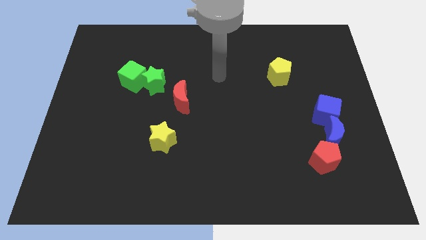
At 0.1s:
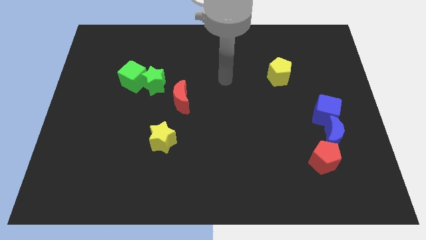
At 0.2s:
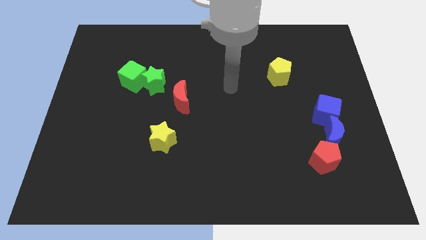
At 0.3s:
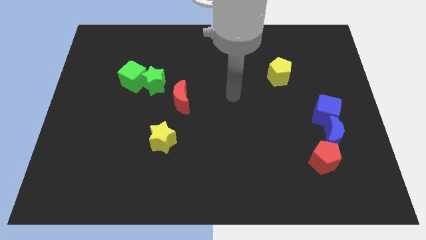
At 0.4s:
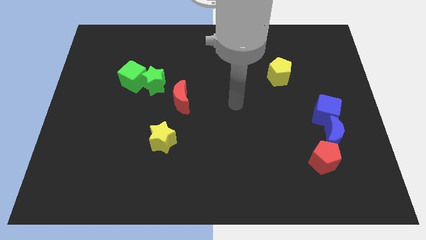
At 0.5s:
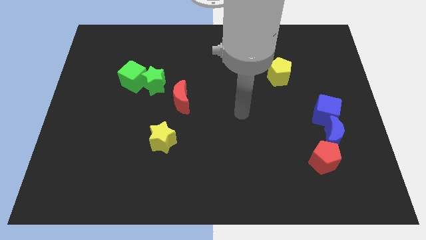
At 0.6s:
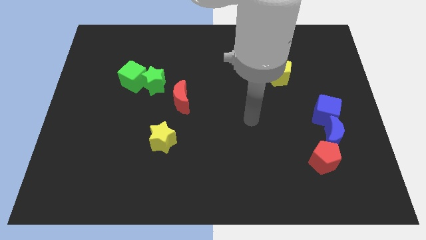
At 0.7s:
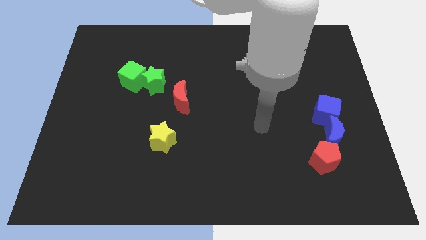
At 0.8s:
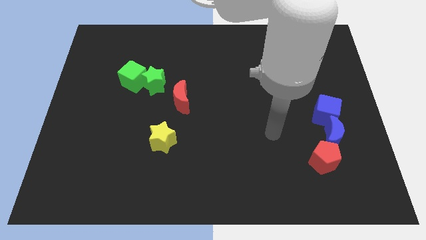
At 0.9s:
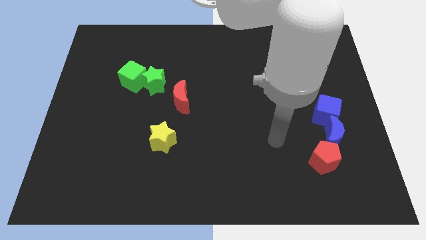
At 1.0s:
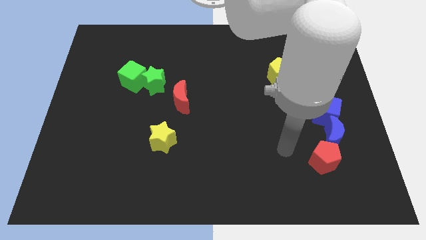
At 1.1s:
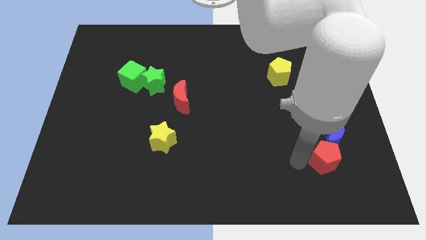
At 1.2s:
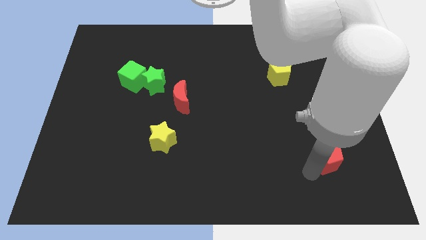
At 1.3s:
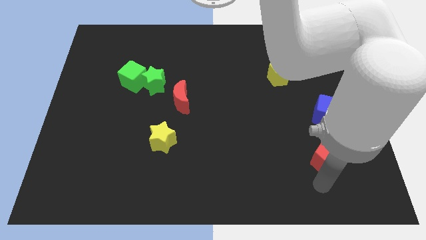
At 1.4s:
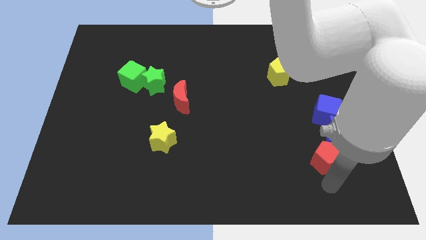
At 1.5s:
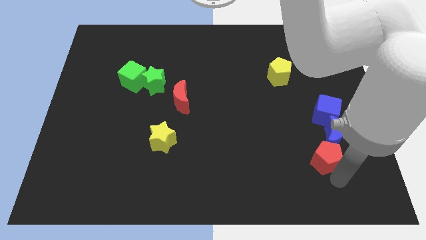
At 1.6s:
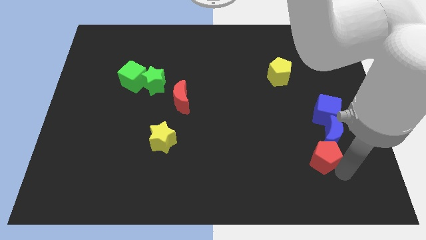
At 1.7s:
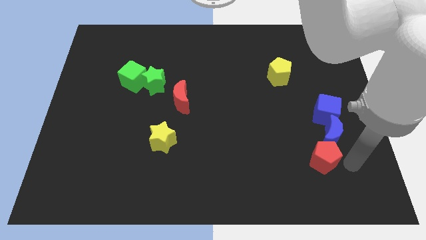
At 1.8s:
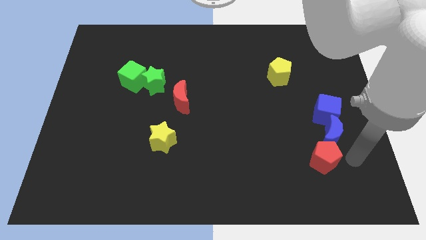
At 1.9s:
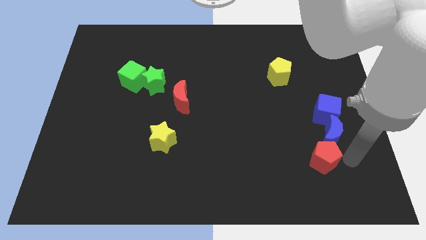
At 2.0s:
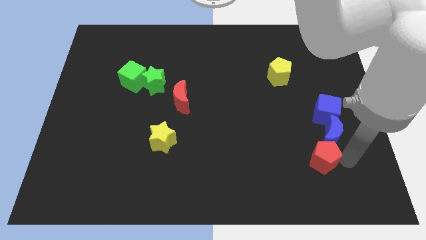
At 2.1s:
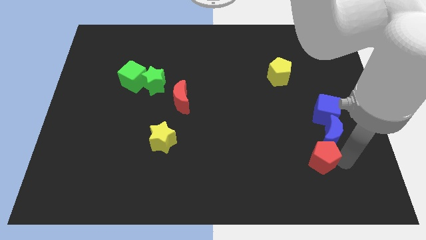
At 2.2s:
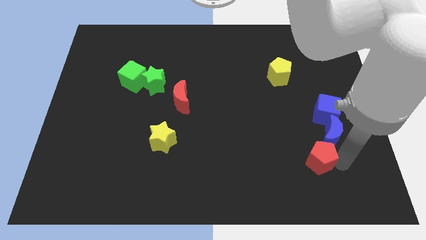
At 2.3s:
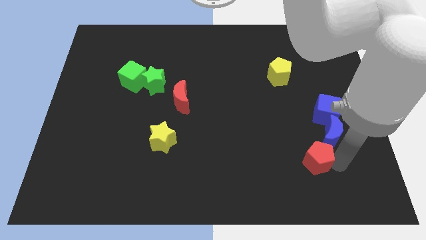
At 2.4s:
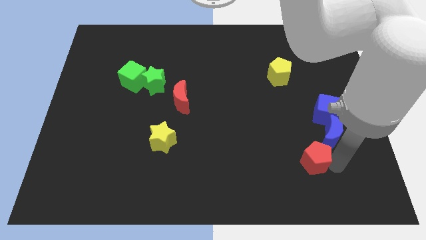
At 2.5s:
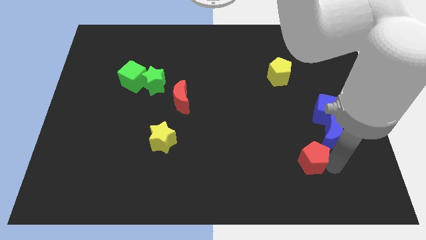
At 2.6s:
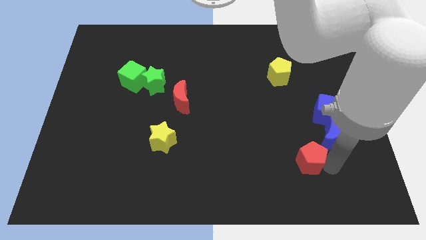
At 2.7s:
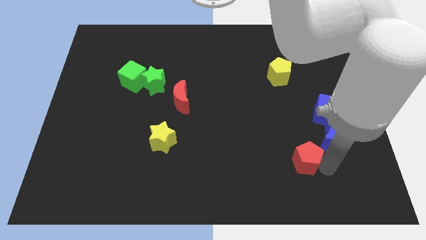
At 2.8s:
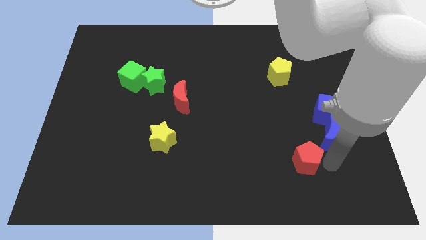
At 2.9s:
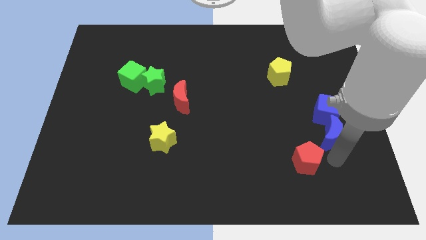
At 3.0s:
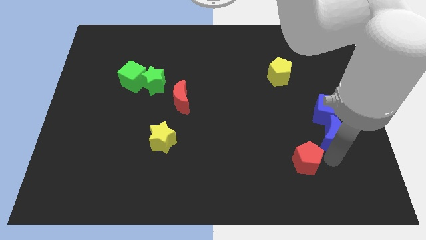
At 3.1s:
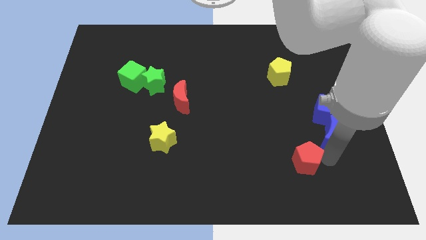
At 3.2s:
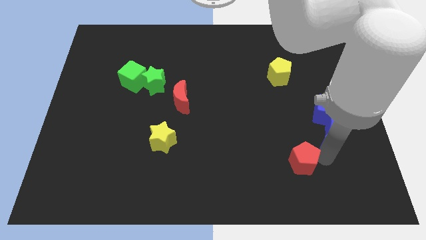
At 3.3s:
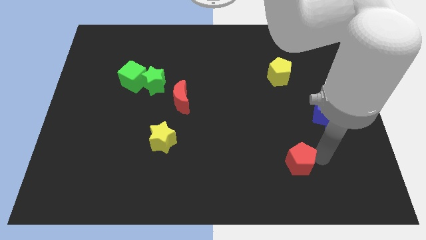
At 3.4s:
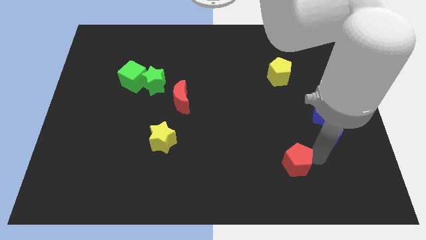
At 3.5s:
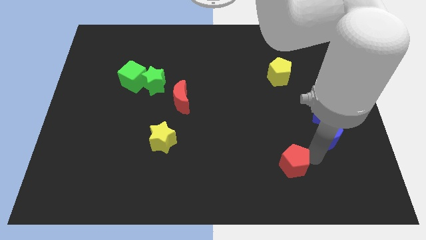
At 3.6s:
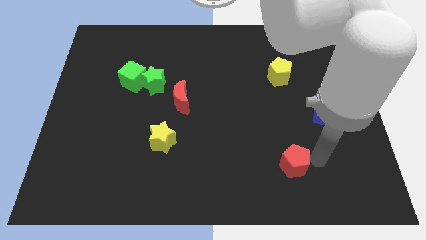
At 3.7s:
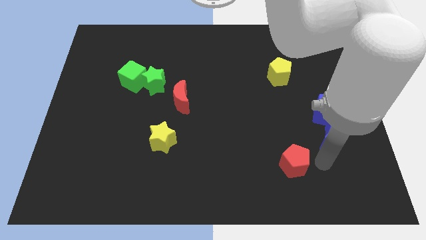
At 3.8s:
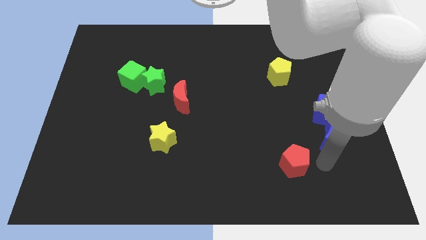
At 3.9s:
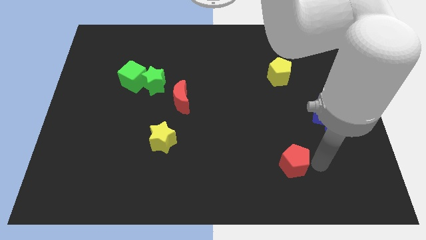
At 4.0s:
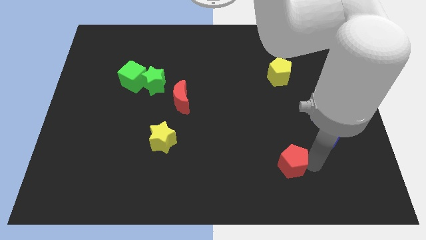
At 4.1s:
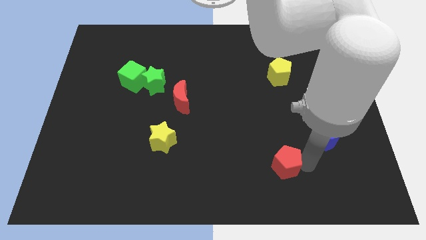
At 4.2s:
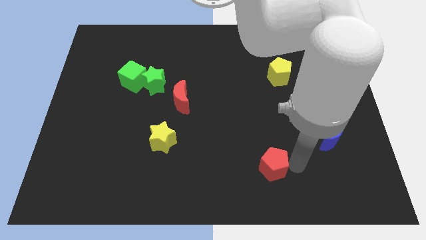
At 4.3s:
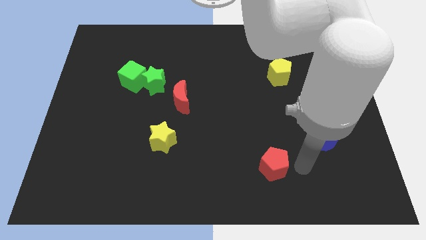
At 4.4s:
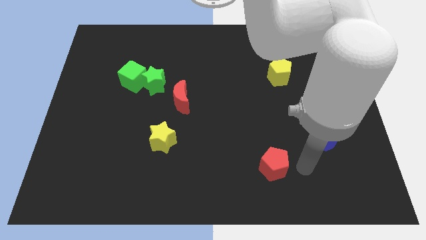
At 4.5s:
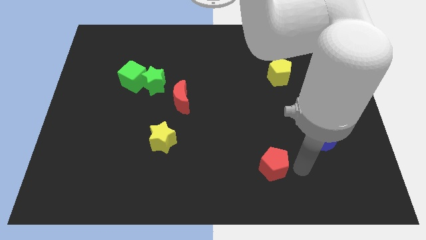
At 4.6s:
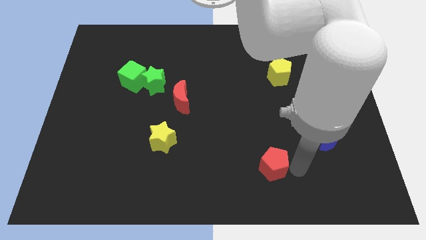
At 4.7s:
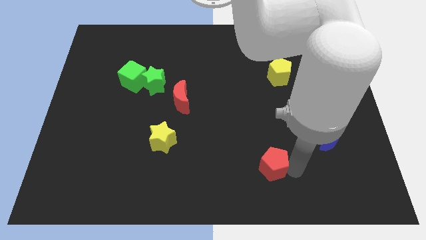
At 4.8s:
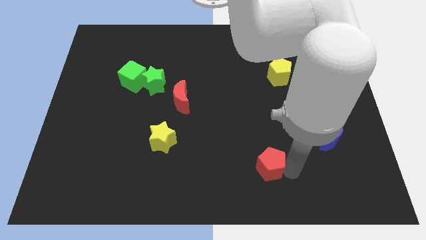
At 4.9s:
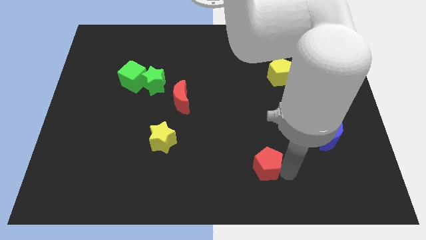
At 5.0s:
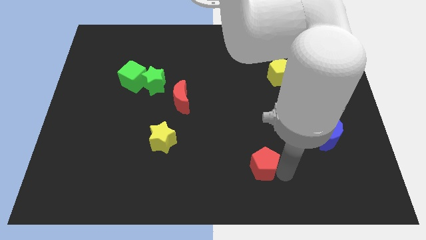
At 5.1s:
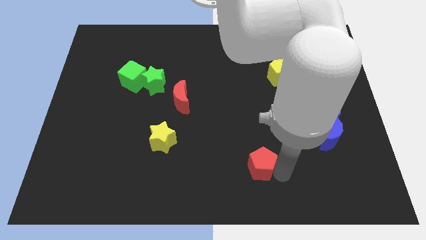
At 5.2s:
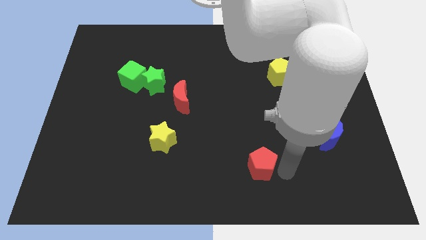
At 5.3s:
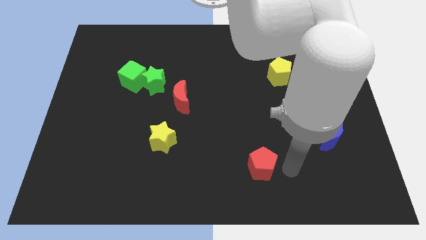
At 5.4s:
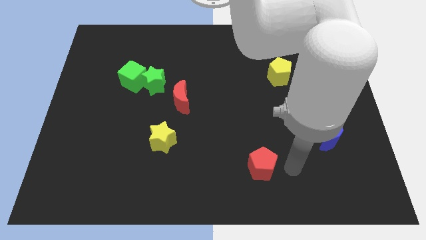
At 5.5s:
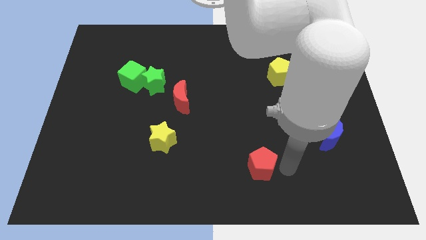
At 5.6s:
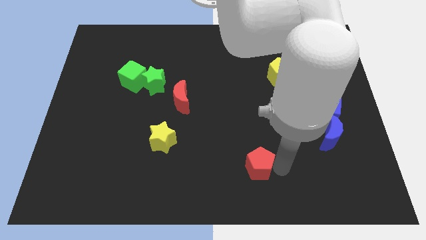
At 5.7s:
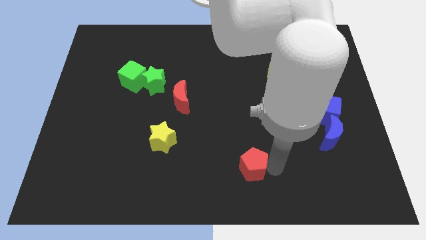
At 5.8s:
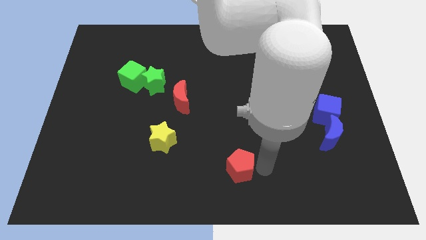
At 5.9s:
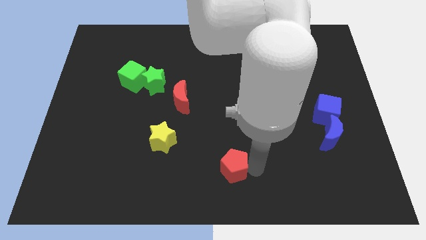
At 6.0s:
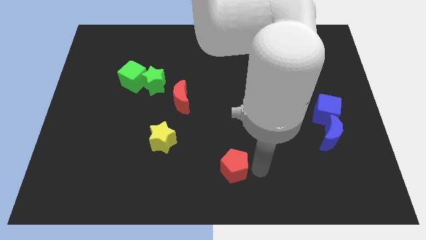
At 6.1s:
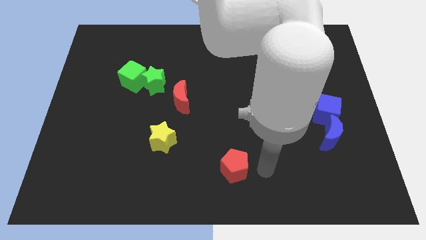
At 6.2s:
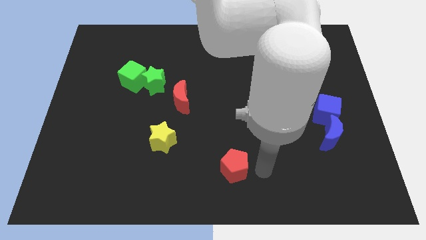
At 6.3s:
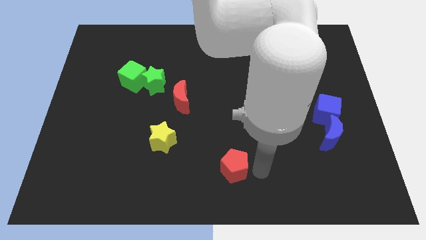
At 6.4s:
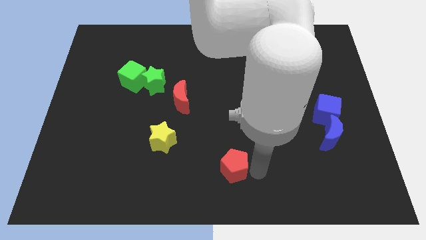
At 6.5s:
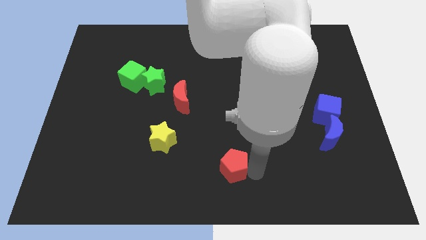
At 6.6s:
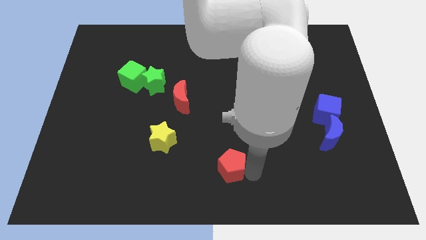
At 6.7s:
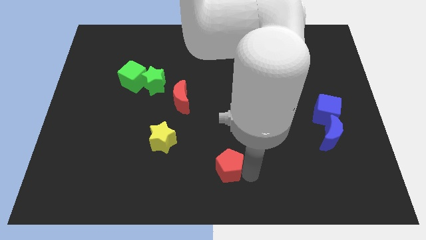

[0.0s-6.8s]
move the red pentagon left

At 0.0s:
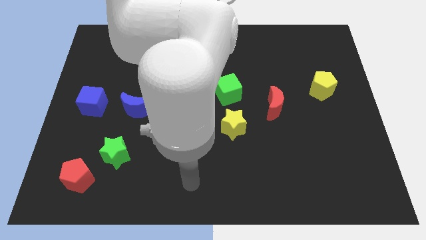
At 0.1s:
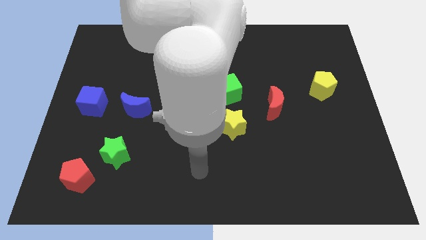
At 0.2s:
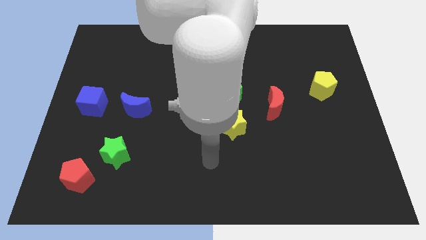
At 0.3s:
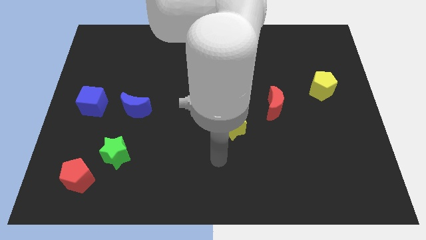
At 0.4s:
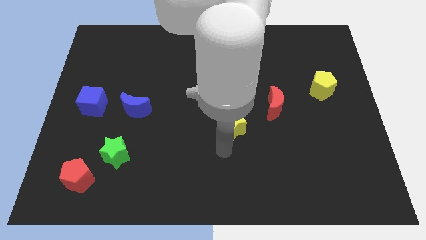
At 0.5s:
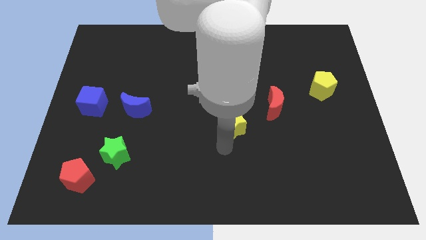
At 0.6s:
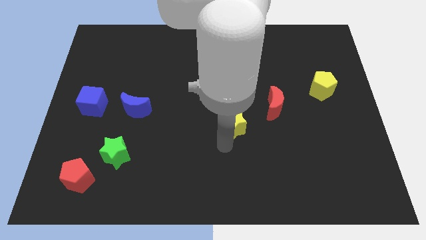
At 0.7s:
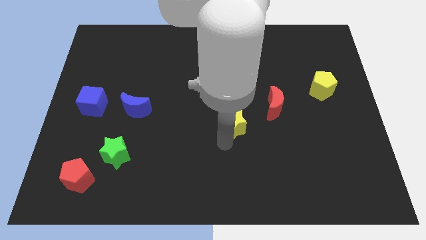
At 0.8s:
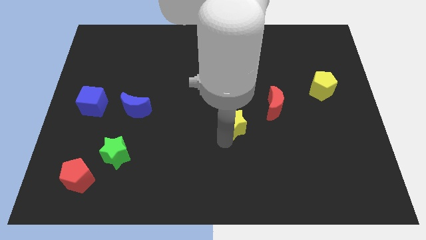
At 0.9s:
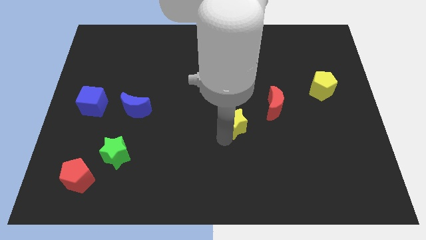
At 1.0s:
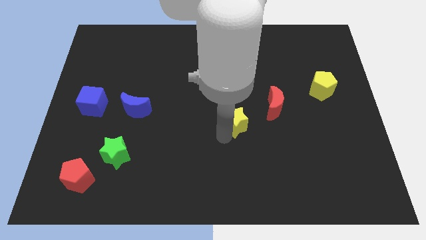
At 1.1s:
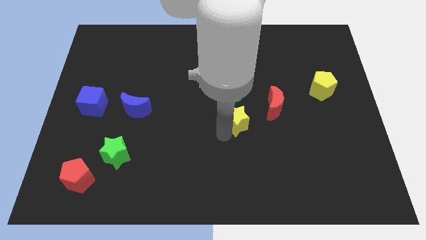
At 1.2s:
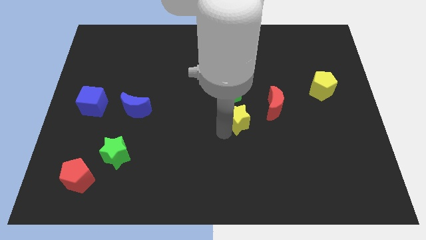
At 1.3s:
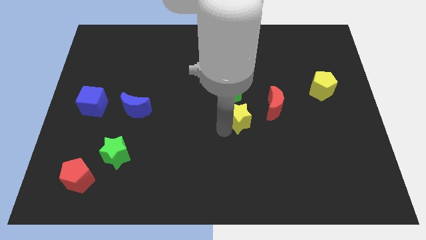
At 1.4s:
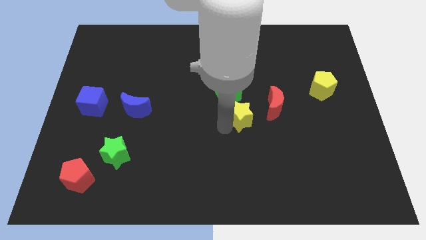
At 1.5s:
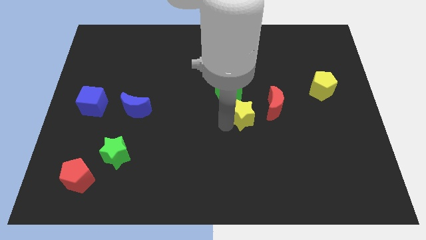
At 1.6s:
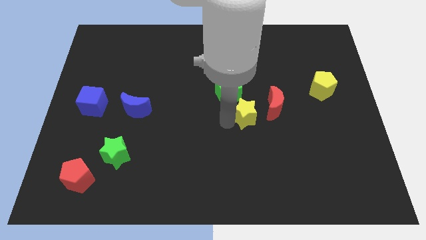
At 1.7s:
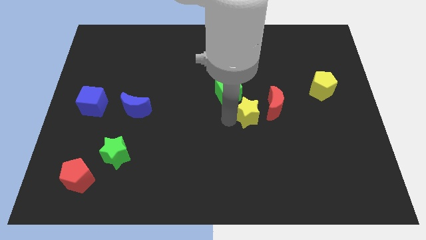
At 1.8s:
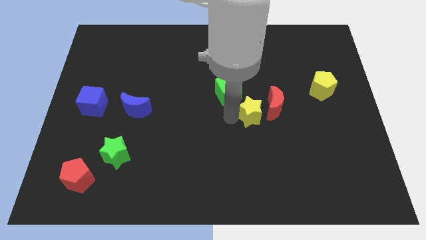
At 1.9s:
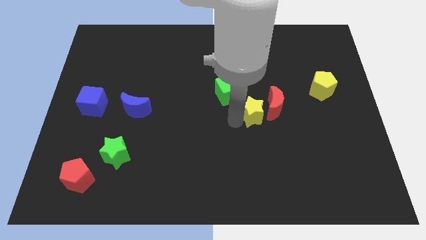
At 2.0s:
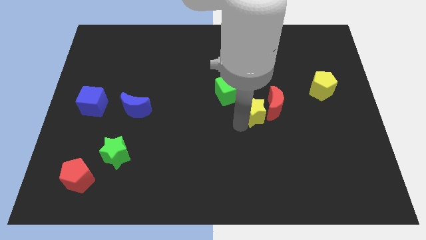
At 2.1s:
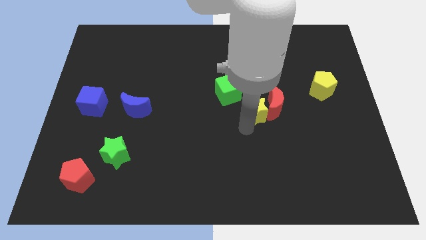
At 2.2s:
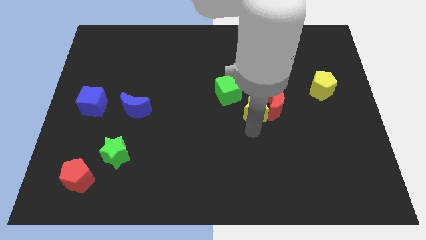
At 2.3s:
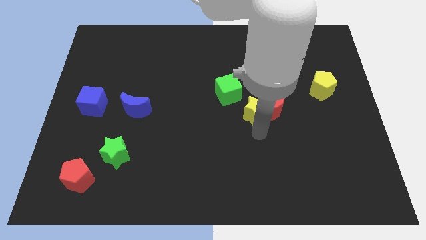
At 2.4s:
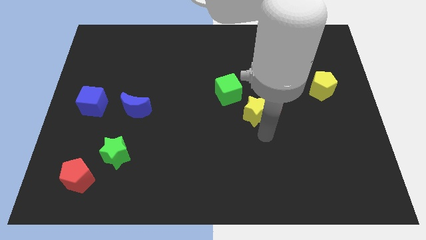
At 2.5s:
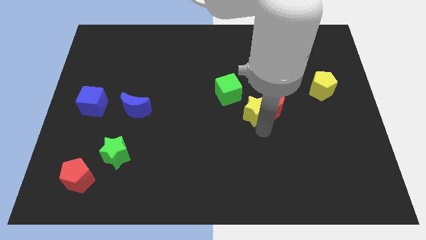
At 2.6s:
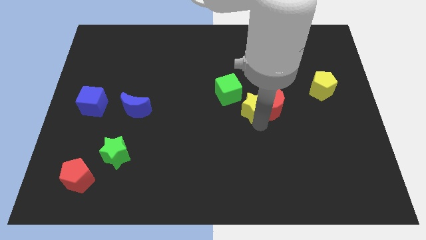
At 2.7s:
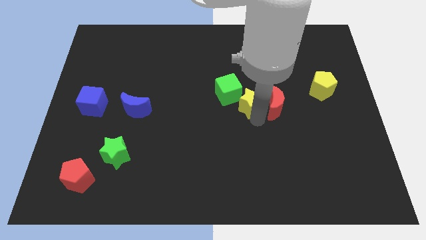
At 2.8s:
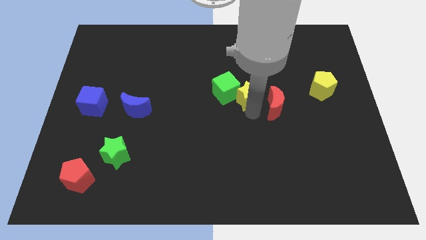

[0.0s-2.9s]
slightly move the yellow star upwards
